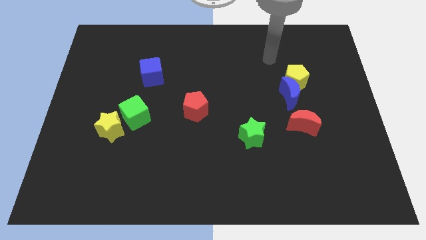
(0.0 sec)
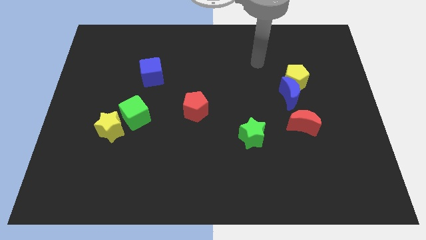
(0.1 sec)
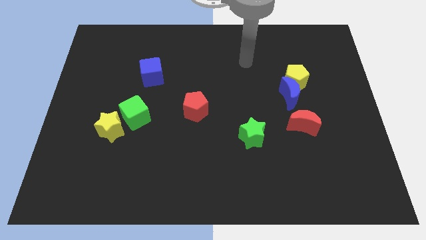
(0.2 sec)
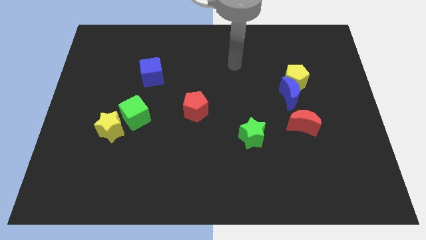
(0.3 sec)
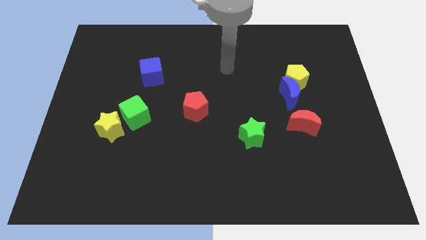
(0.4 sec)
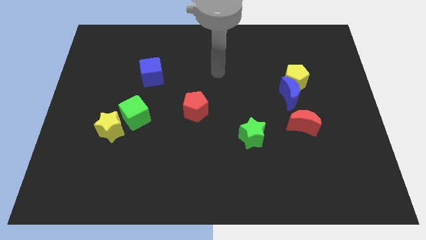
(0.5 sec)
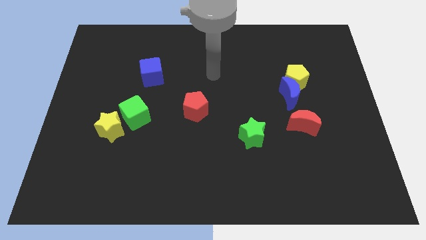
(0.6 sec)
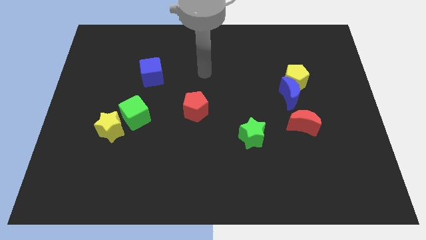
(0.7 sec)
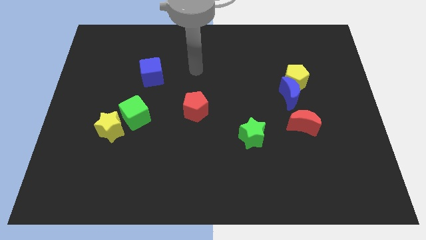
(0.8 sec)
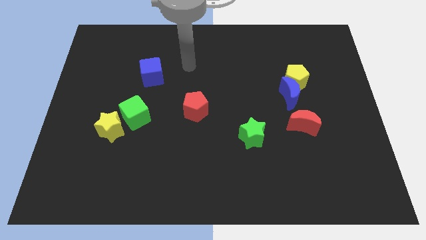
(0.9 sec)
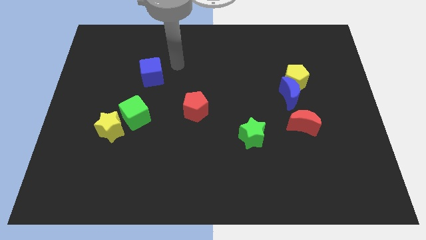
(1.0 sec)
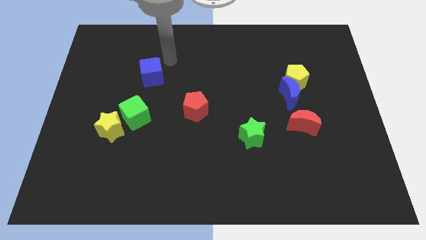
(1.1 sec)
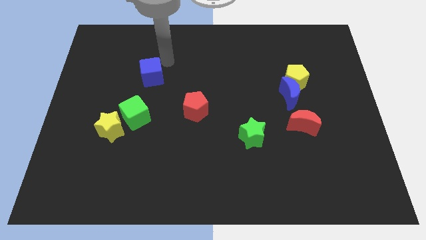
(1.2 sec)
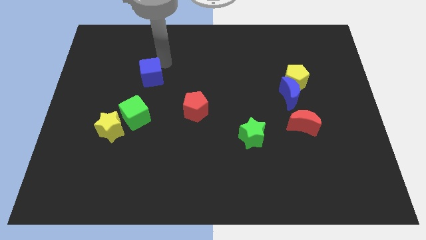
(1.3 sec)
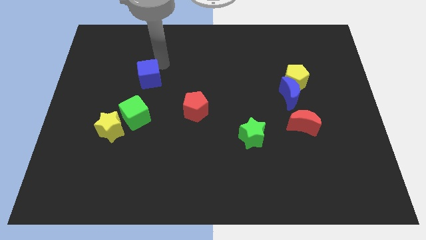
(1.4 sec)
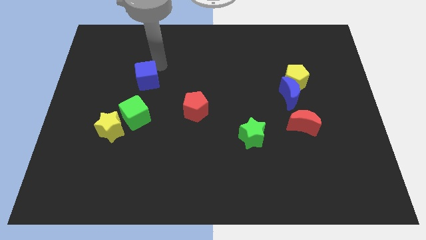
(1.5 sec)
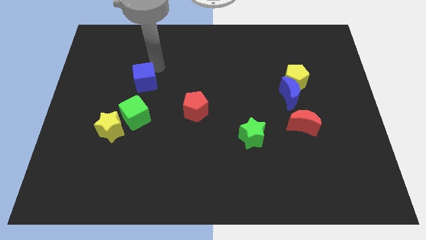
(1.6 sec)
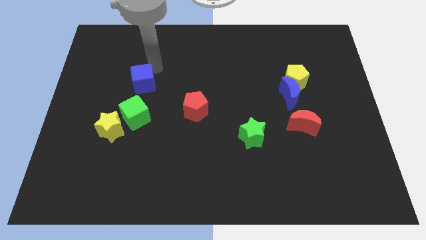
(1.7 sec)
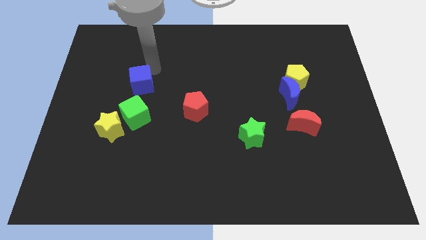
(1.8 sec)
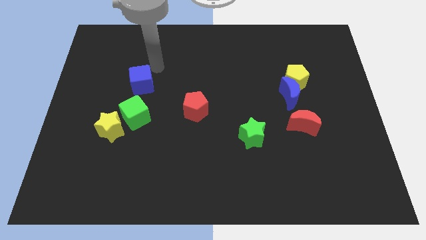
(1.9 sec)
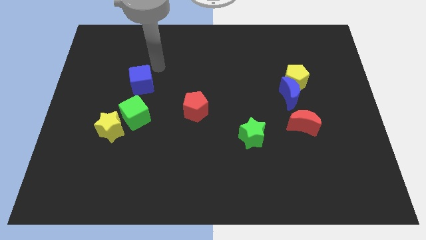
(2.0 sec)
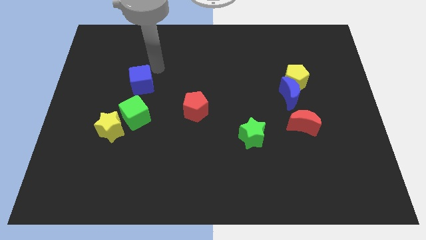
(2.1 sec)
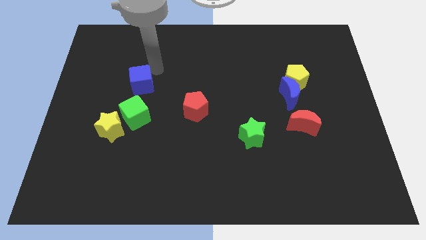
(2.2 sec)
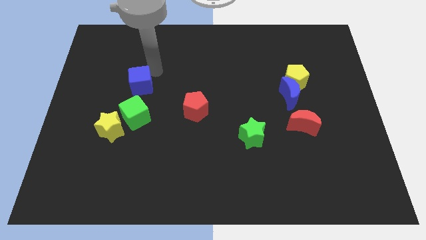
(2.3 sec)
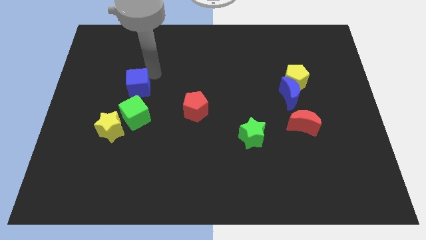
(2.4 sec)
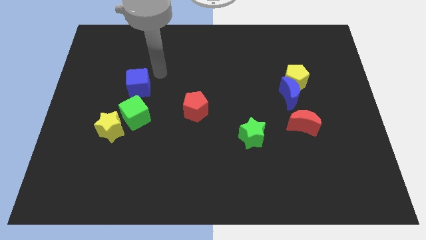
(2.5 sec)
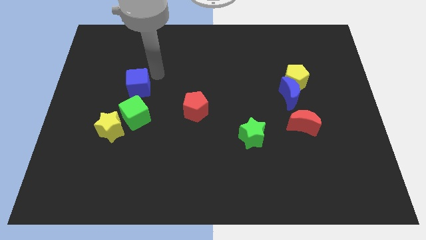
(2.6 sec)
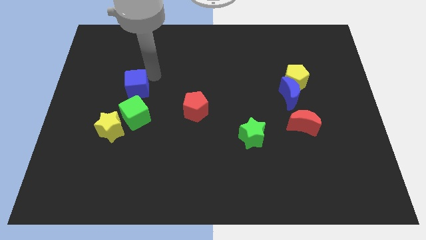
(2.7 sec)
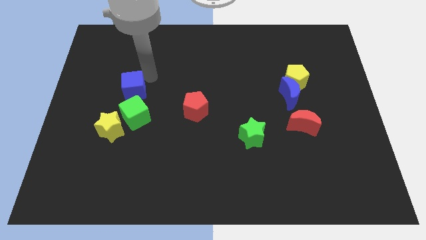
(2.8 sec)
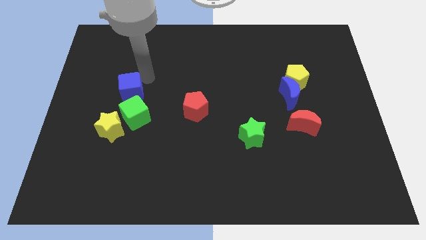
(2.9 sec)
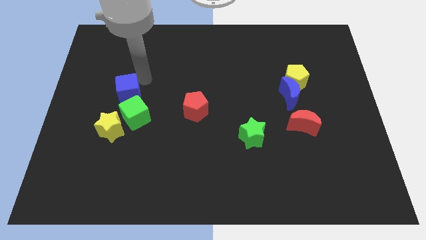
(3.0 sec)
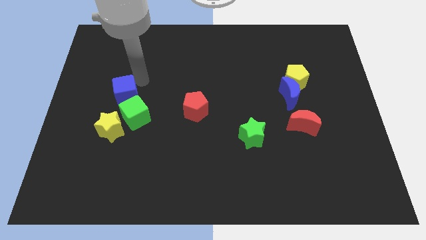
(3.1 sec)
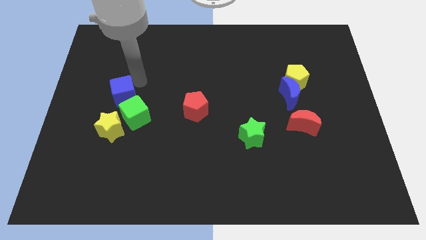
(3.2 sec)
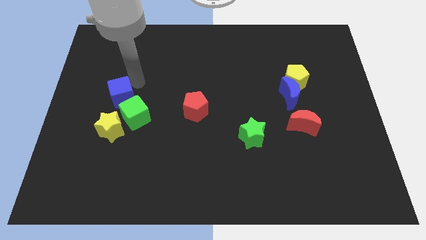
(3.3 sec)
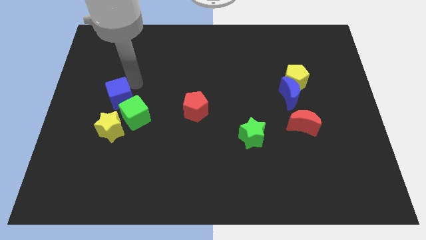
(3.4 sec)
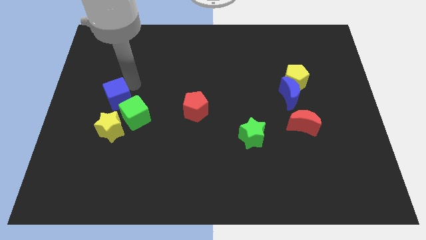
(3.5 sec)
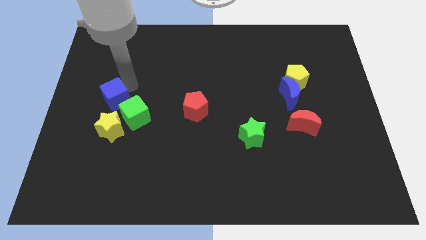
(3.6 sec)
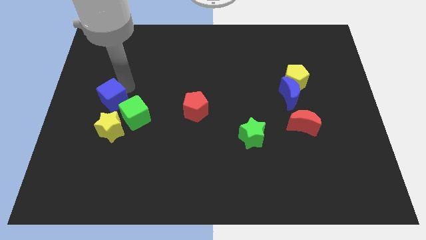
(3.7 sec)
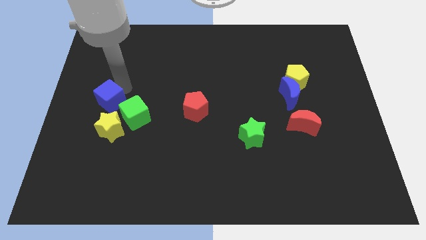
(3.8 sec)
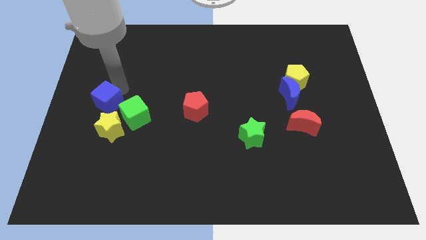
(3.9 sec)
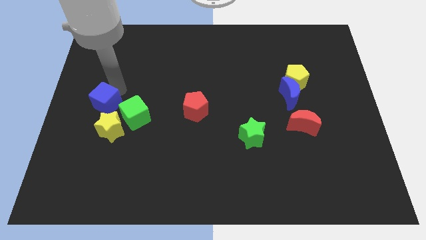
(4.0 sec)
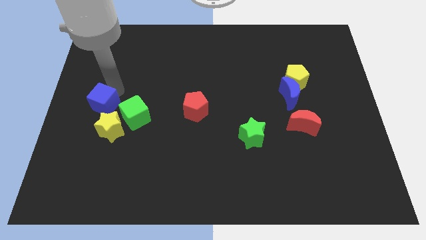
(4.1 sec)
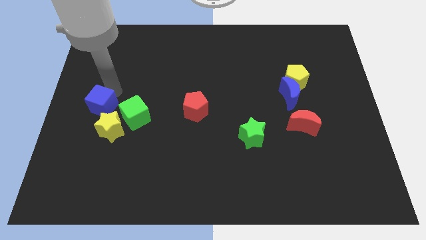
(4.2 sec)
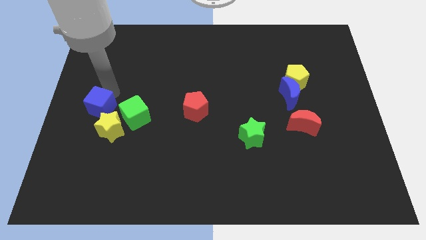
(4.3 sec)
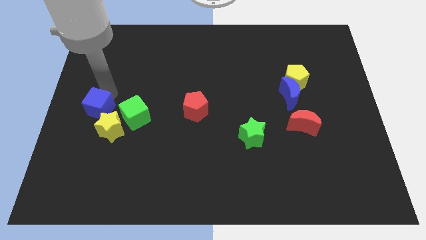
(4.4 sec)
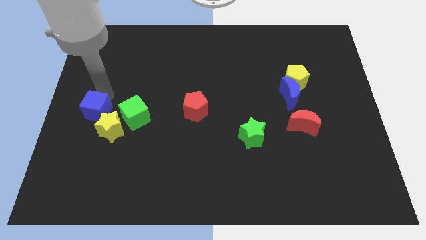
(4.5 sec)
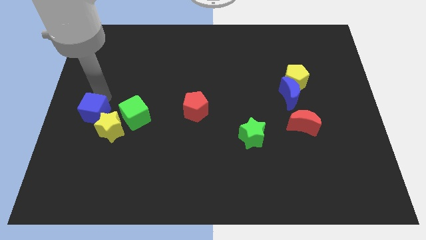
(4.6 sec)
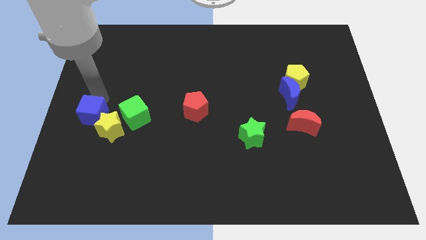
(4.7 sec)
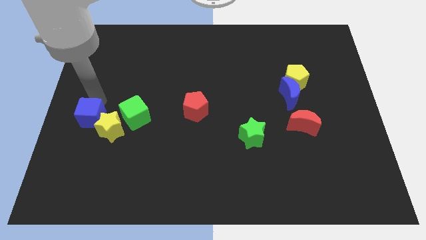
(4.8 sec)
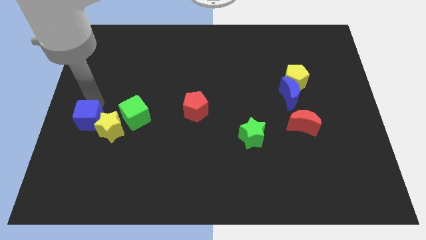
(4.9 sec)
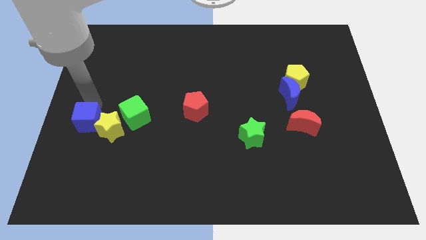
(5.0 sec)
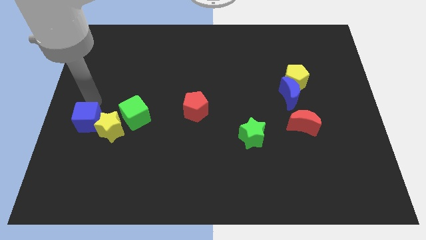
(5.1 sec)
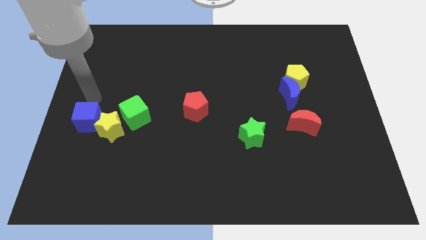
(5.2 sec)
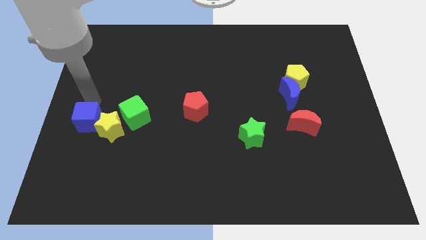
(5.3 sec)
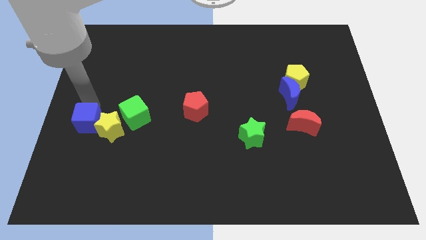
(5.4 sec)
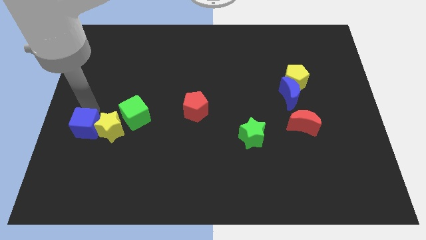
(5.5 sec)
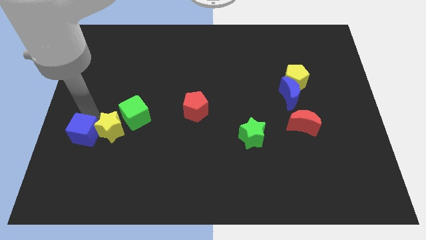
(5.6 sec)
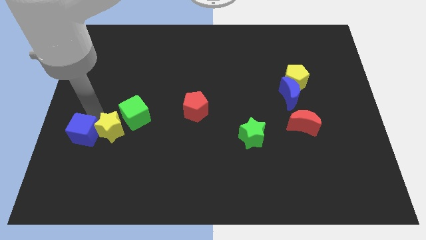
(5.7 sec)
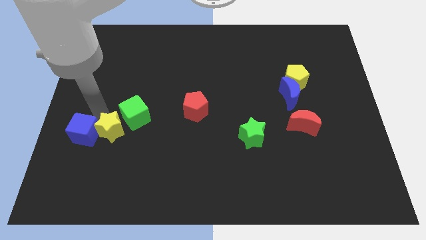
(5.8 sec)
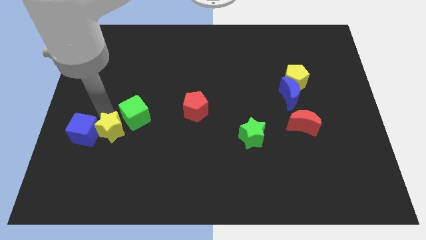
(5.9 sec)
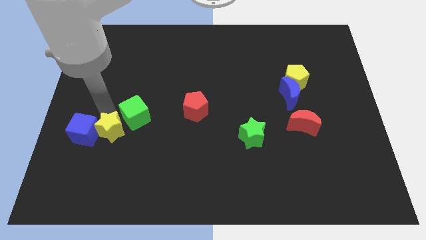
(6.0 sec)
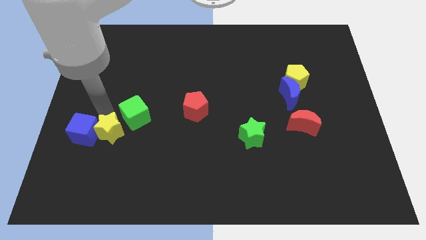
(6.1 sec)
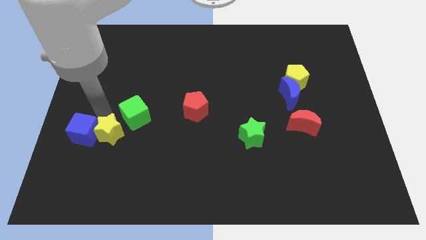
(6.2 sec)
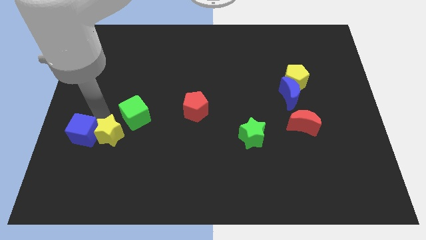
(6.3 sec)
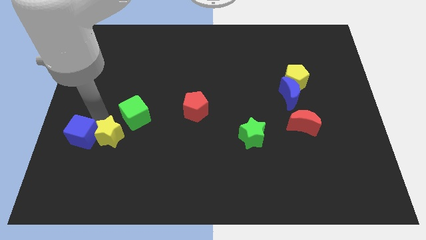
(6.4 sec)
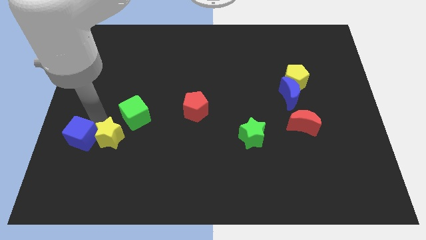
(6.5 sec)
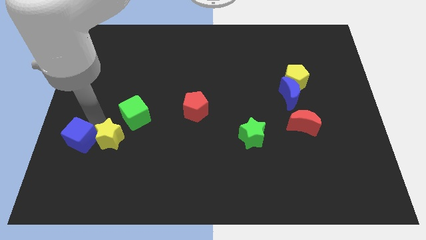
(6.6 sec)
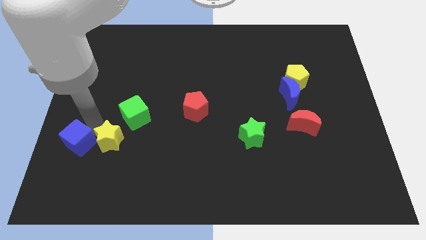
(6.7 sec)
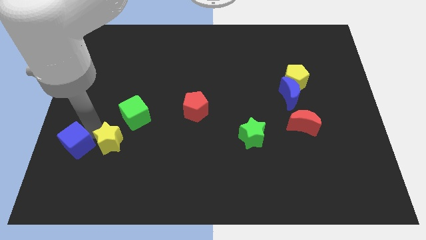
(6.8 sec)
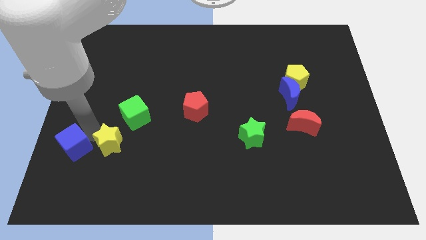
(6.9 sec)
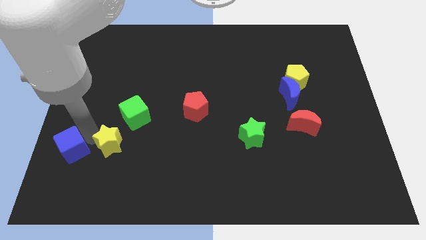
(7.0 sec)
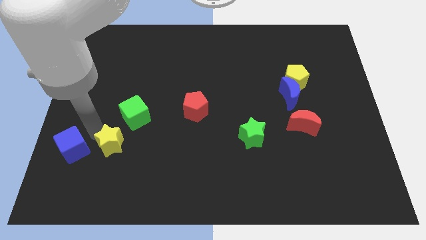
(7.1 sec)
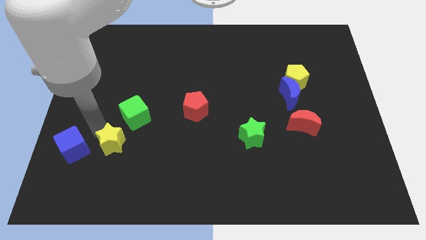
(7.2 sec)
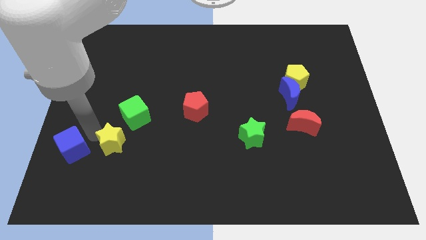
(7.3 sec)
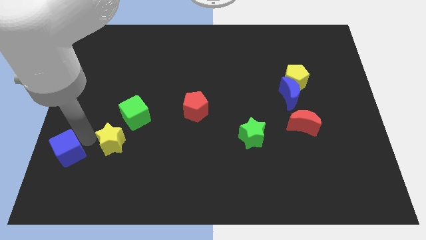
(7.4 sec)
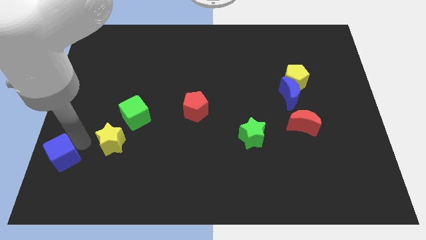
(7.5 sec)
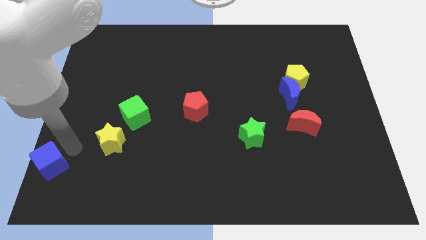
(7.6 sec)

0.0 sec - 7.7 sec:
put the blue cube to the bottom left of the board
